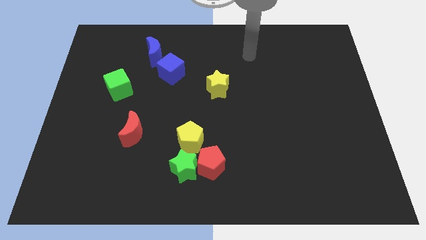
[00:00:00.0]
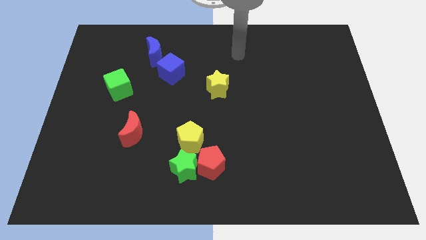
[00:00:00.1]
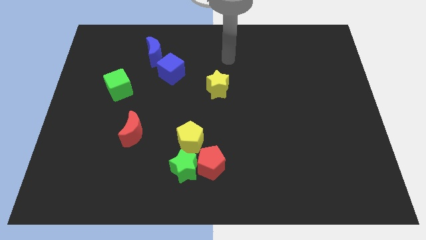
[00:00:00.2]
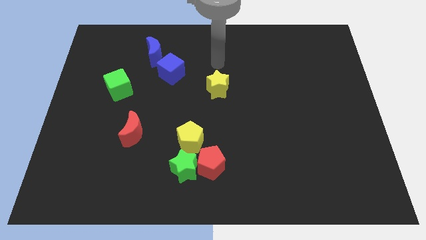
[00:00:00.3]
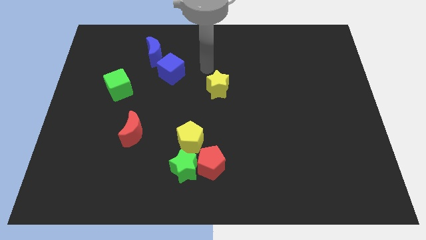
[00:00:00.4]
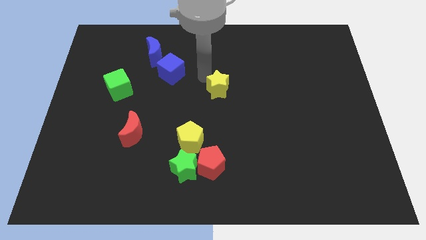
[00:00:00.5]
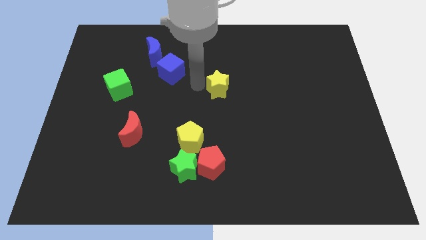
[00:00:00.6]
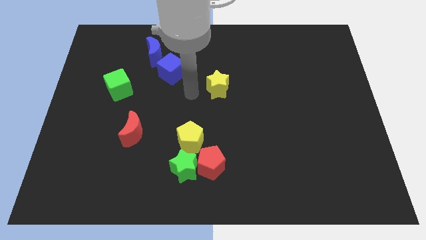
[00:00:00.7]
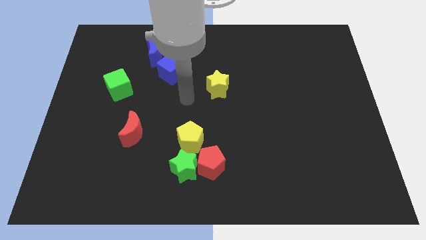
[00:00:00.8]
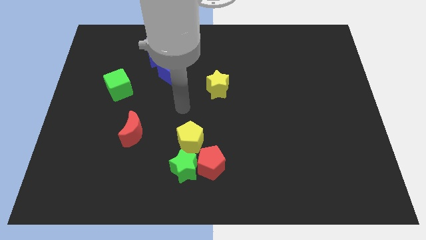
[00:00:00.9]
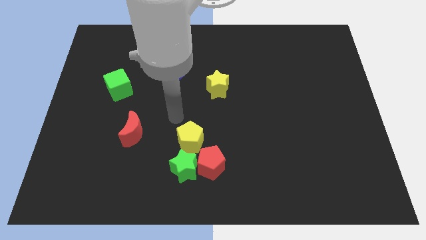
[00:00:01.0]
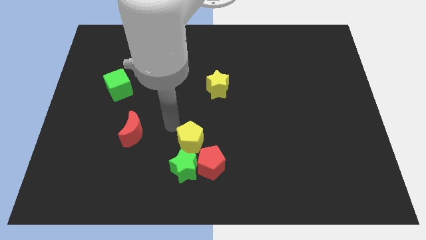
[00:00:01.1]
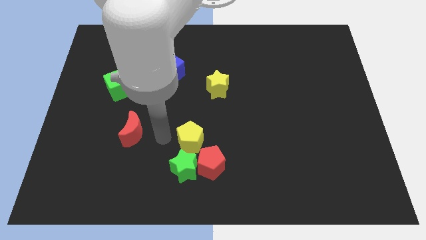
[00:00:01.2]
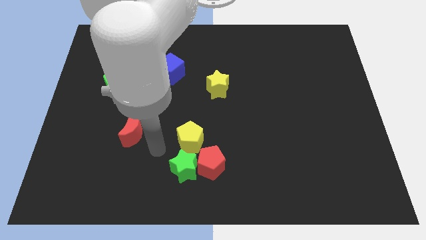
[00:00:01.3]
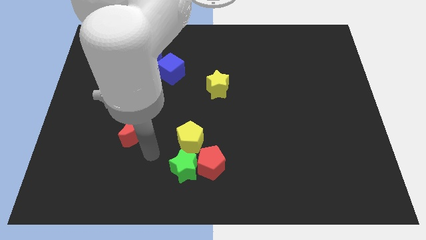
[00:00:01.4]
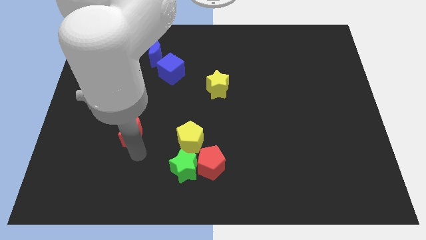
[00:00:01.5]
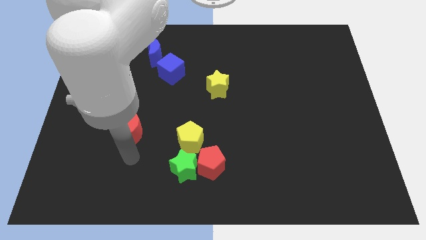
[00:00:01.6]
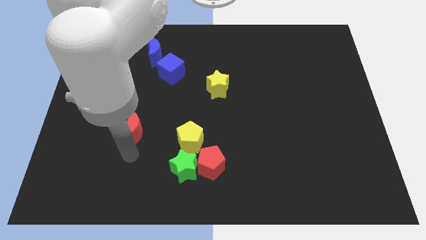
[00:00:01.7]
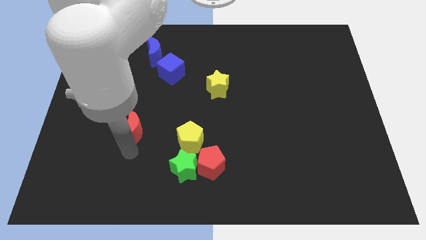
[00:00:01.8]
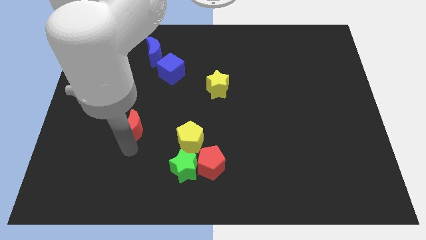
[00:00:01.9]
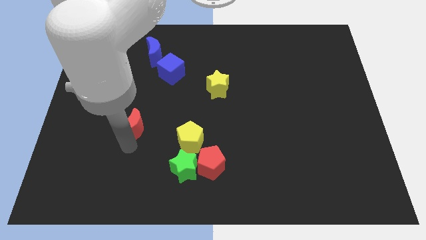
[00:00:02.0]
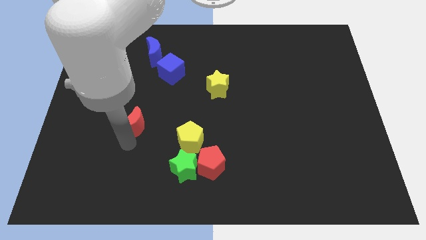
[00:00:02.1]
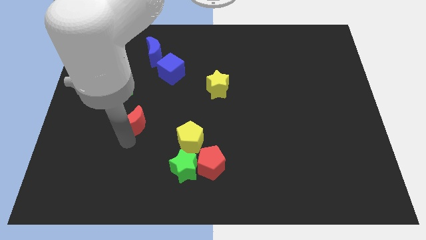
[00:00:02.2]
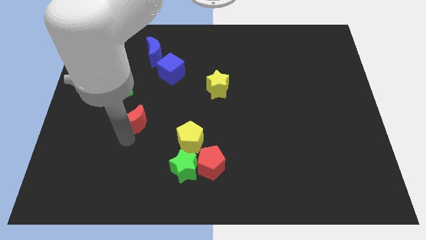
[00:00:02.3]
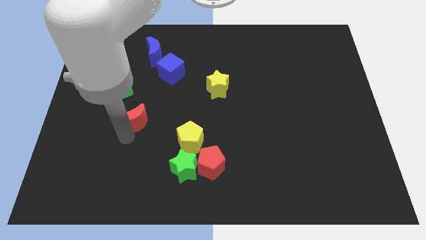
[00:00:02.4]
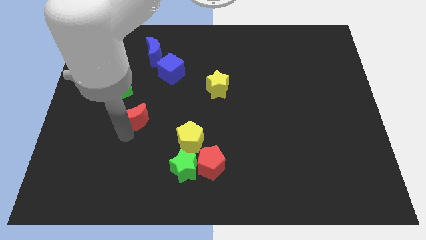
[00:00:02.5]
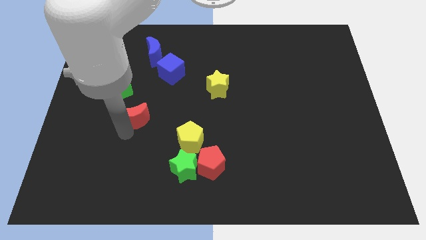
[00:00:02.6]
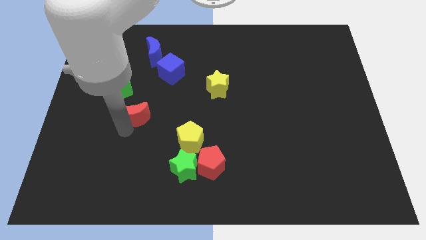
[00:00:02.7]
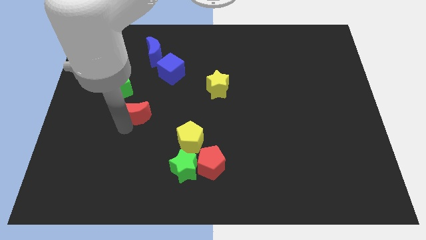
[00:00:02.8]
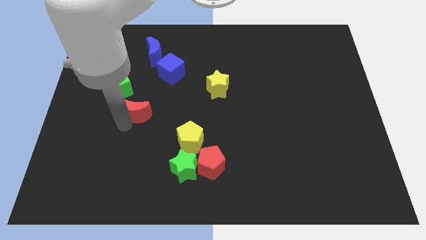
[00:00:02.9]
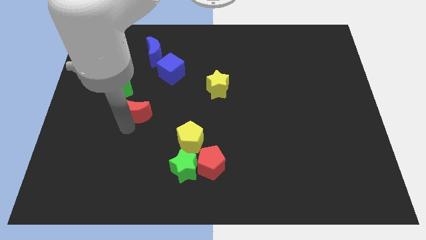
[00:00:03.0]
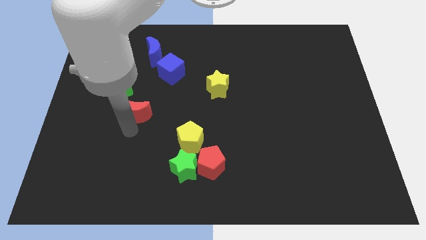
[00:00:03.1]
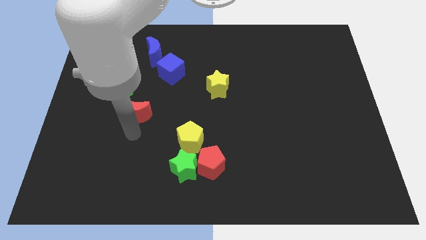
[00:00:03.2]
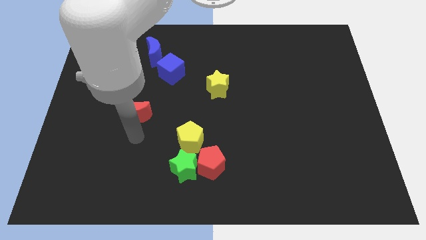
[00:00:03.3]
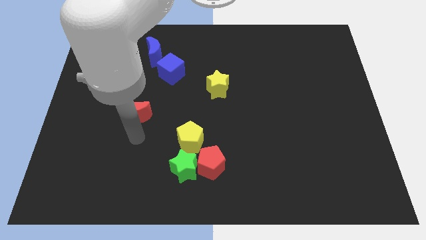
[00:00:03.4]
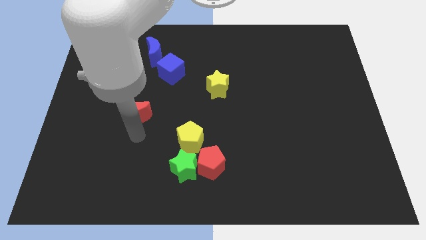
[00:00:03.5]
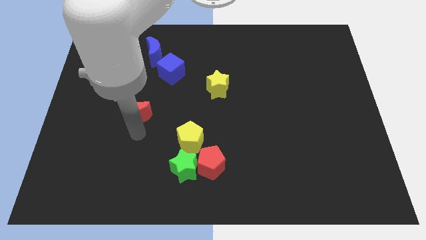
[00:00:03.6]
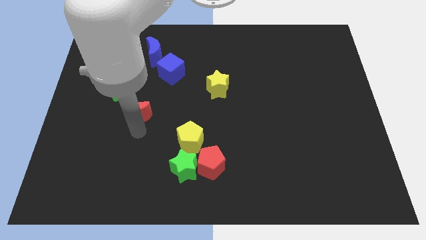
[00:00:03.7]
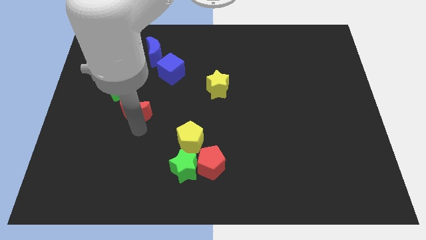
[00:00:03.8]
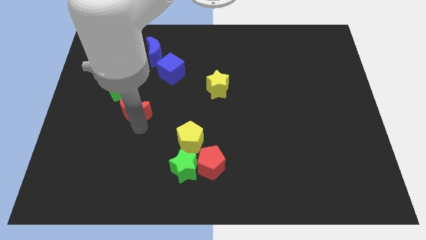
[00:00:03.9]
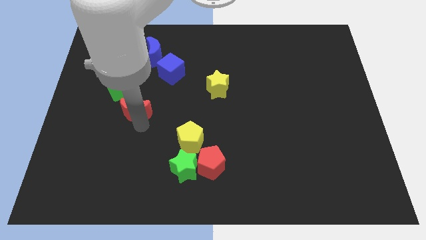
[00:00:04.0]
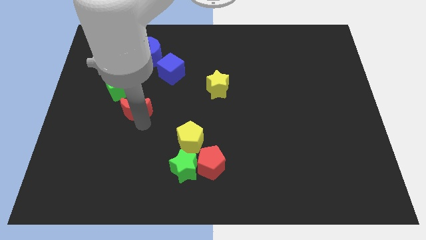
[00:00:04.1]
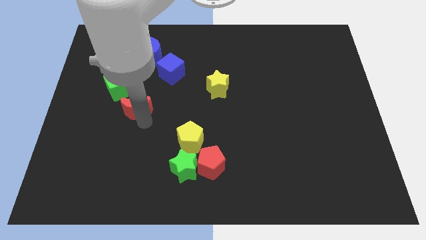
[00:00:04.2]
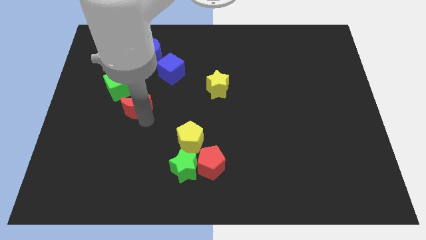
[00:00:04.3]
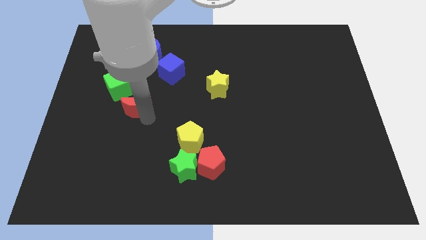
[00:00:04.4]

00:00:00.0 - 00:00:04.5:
push the red moon up slightly

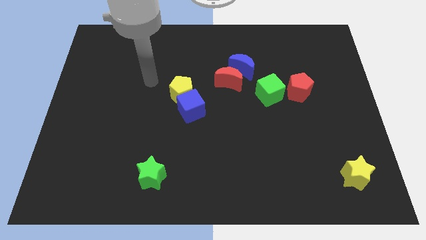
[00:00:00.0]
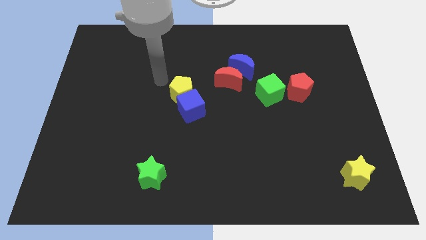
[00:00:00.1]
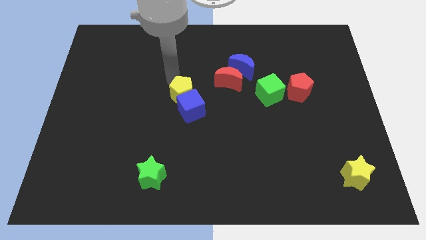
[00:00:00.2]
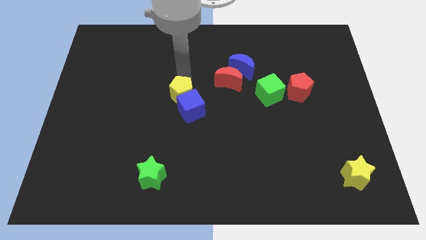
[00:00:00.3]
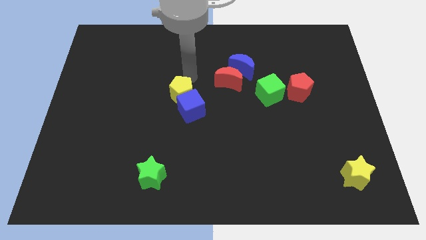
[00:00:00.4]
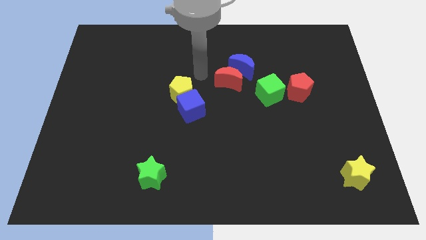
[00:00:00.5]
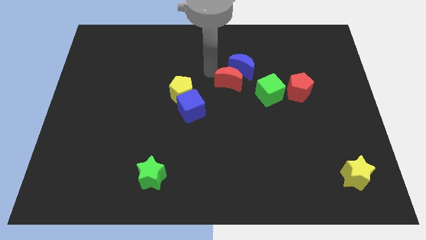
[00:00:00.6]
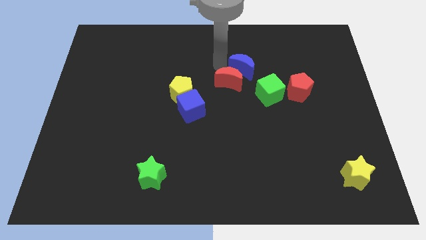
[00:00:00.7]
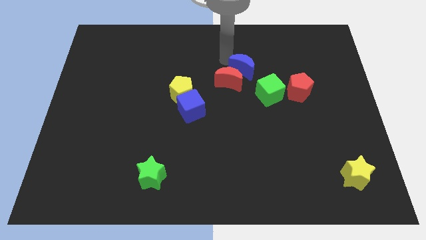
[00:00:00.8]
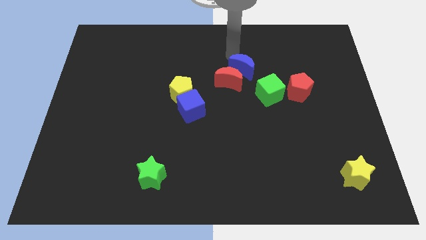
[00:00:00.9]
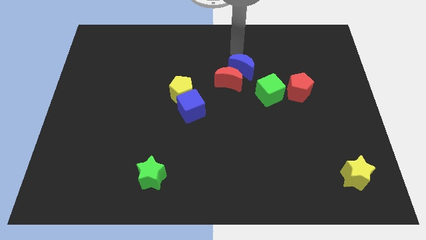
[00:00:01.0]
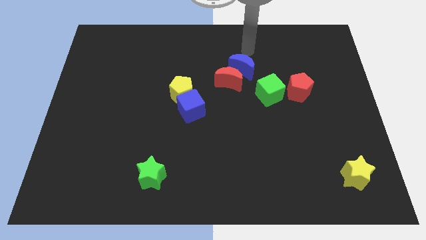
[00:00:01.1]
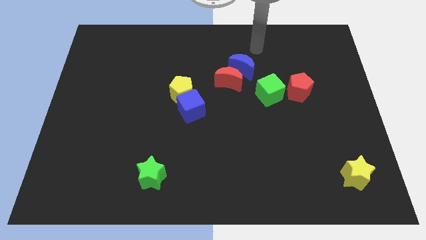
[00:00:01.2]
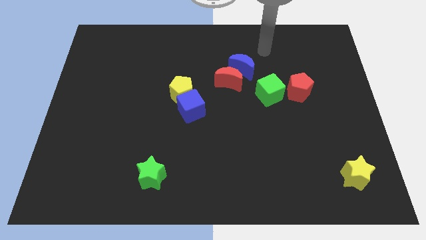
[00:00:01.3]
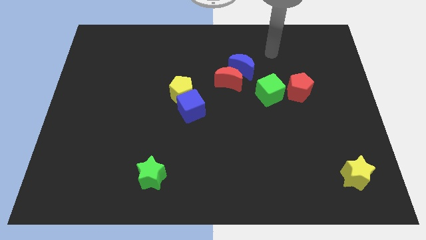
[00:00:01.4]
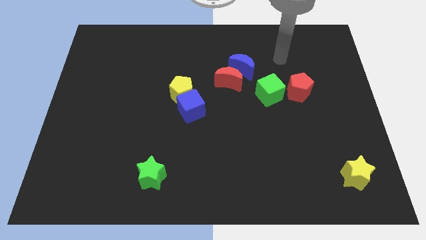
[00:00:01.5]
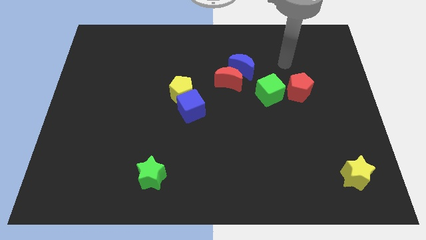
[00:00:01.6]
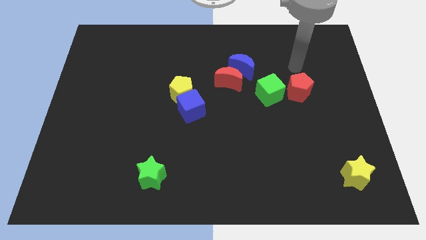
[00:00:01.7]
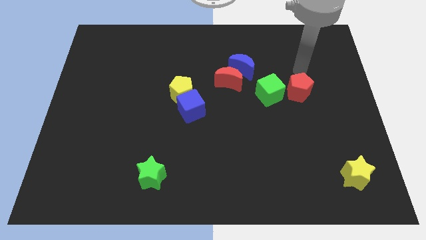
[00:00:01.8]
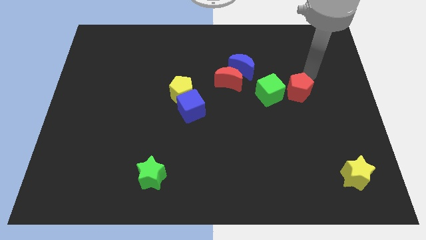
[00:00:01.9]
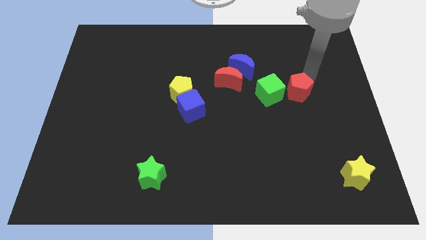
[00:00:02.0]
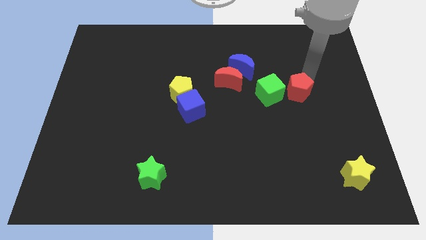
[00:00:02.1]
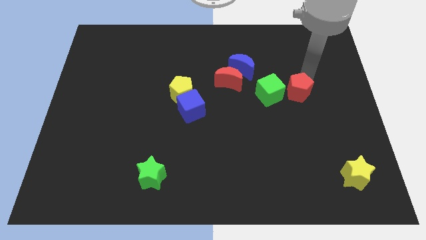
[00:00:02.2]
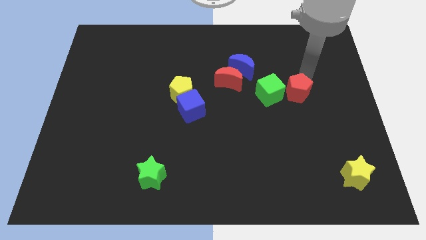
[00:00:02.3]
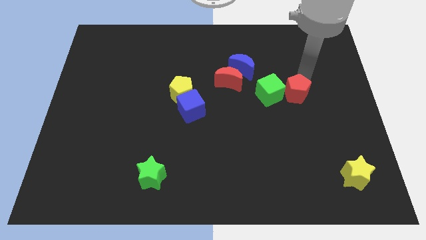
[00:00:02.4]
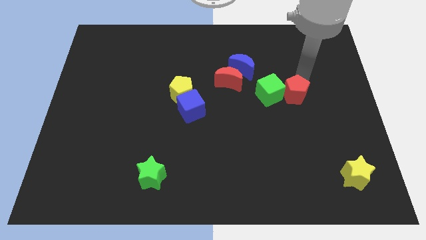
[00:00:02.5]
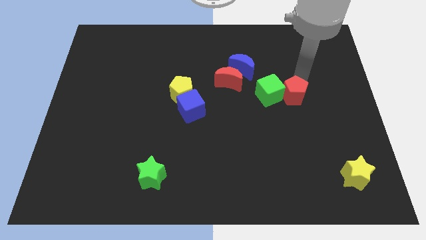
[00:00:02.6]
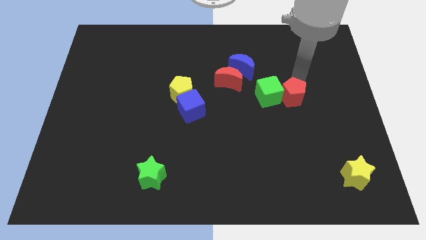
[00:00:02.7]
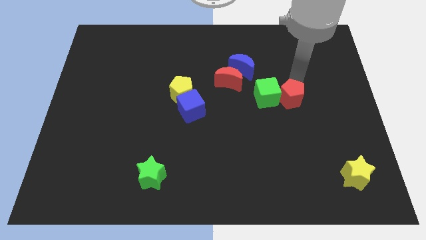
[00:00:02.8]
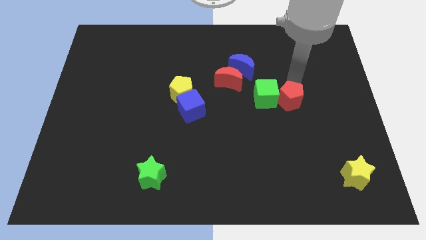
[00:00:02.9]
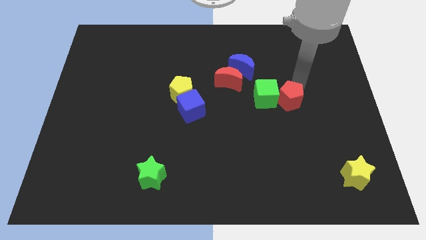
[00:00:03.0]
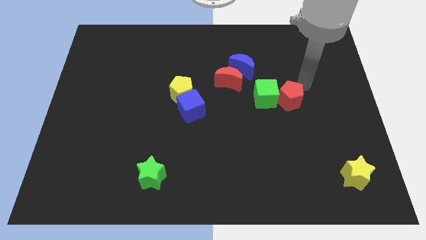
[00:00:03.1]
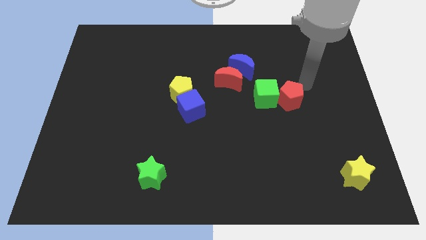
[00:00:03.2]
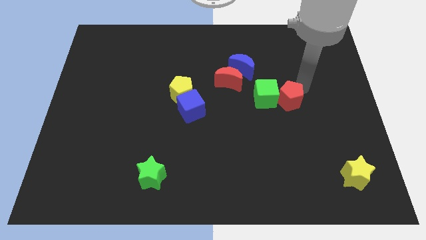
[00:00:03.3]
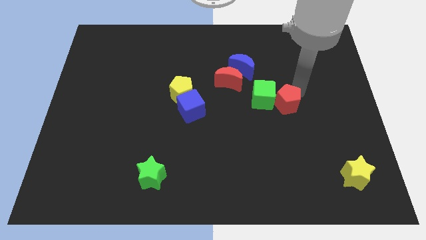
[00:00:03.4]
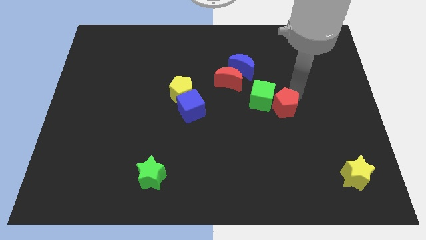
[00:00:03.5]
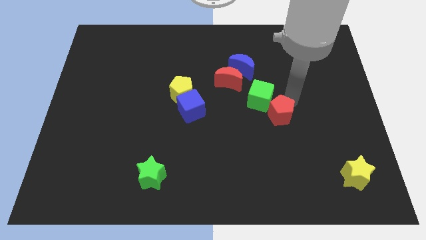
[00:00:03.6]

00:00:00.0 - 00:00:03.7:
slide the red pentagon a little down and then to the left

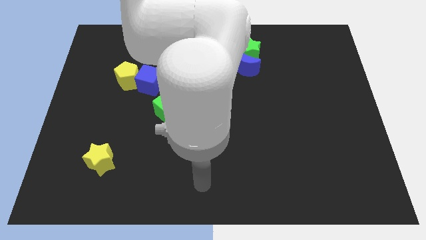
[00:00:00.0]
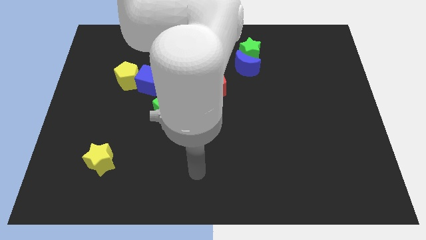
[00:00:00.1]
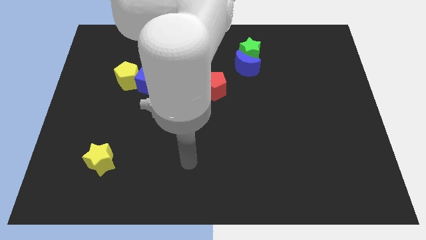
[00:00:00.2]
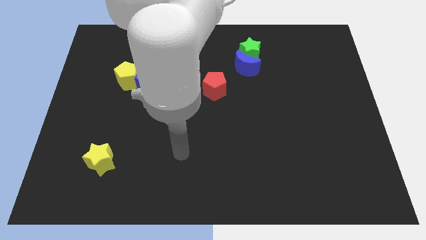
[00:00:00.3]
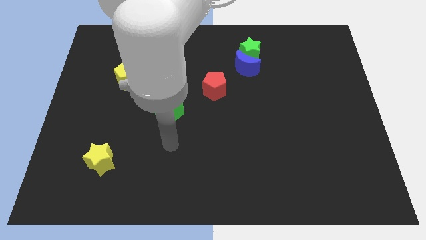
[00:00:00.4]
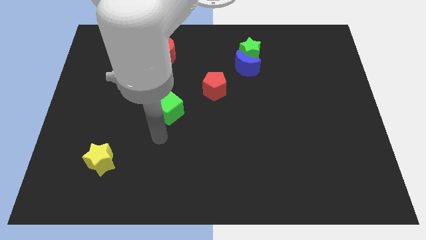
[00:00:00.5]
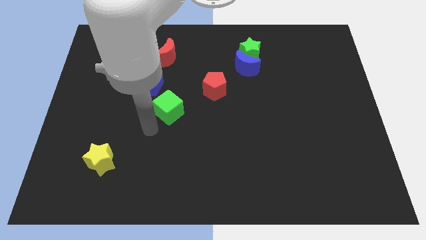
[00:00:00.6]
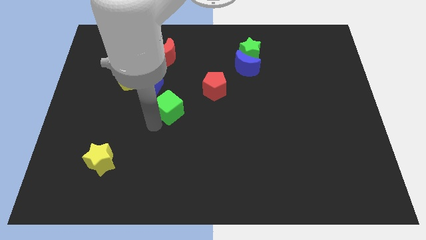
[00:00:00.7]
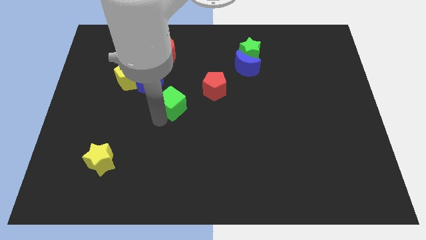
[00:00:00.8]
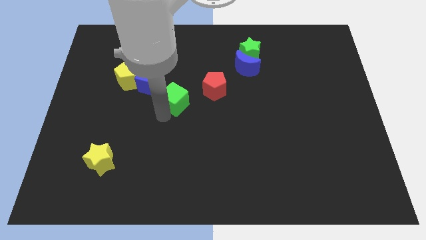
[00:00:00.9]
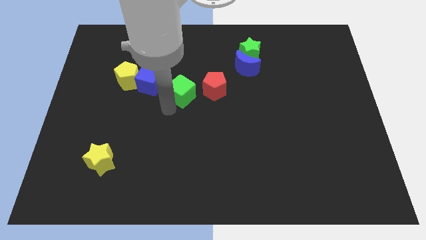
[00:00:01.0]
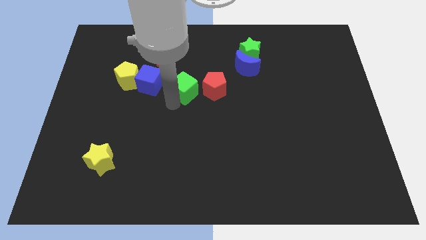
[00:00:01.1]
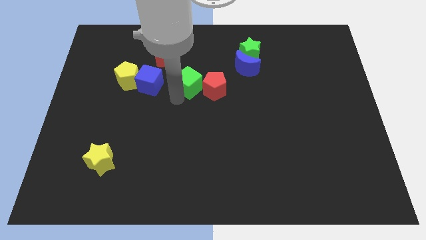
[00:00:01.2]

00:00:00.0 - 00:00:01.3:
push the green cube a little upwards and right
